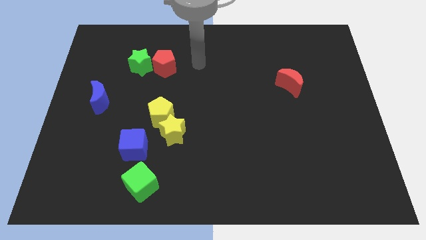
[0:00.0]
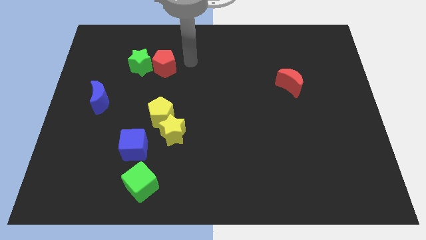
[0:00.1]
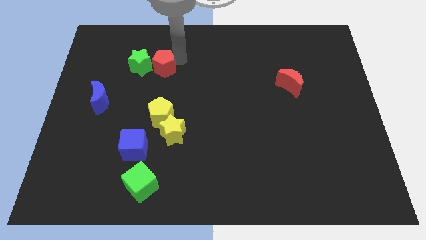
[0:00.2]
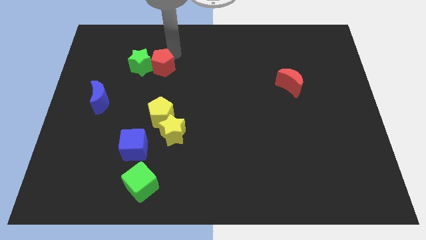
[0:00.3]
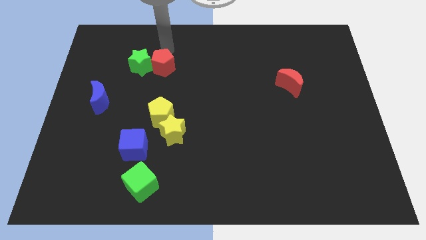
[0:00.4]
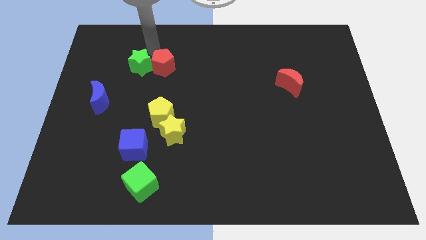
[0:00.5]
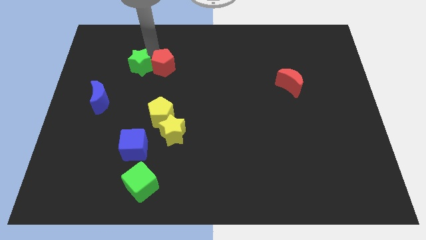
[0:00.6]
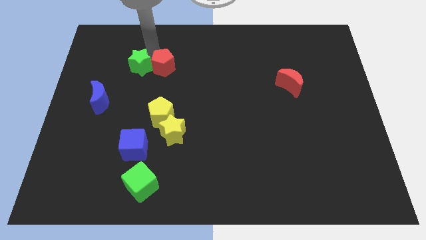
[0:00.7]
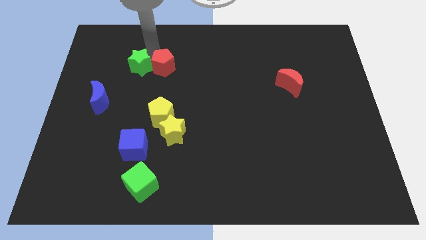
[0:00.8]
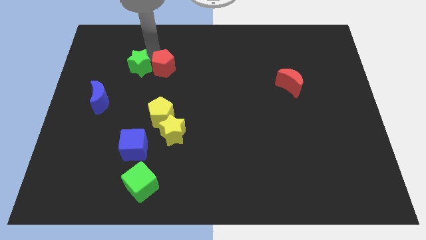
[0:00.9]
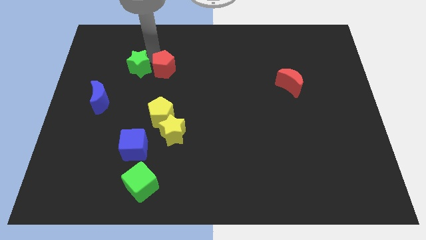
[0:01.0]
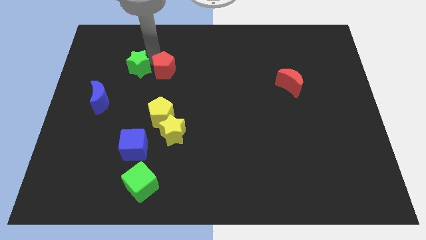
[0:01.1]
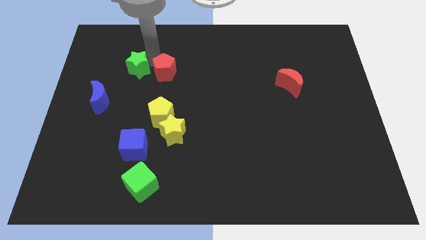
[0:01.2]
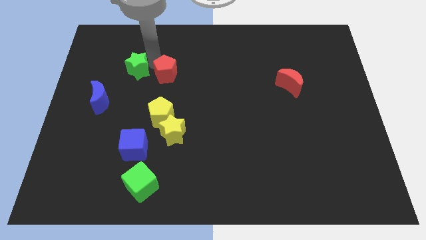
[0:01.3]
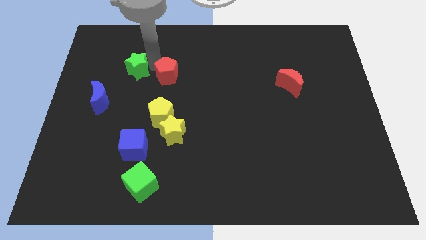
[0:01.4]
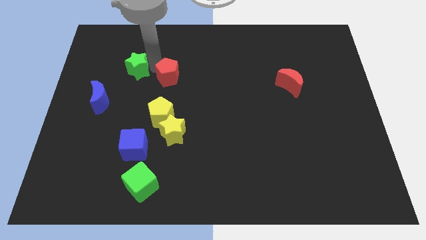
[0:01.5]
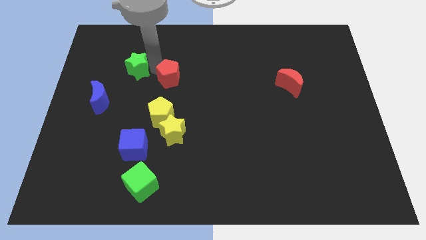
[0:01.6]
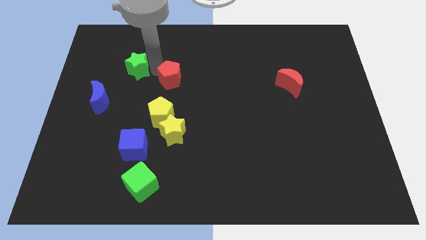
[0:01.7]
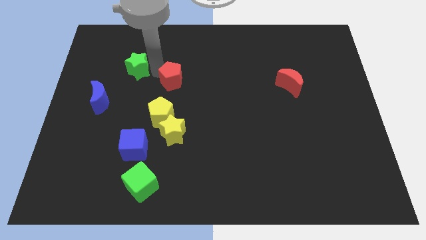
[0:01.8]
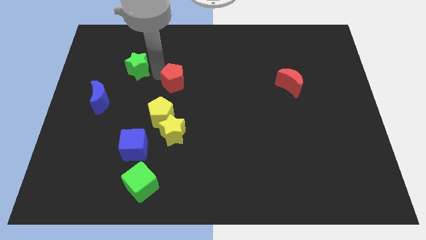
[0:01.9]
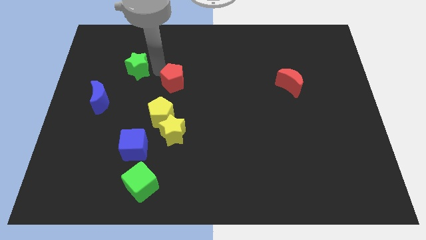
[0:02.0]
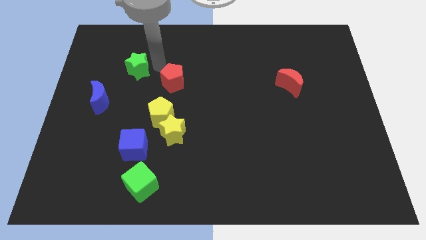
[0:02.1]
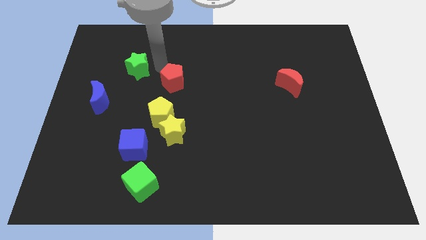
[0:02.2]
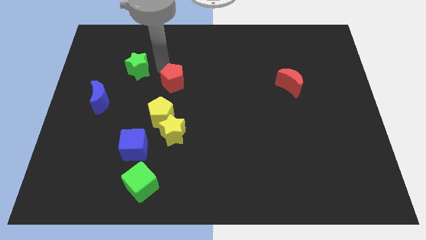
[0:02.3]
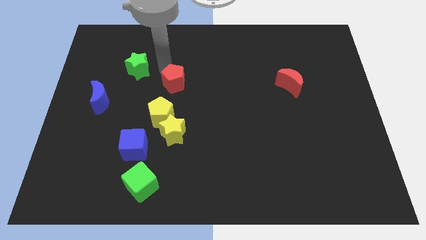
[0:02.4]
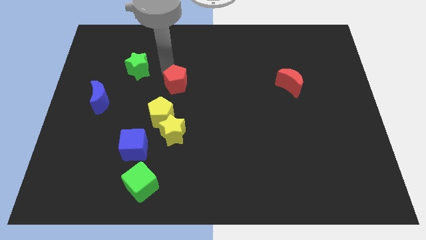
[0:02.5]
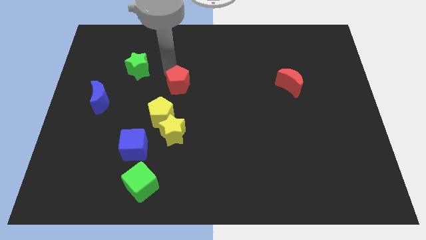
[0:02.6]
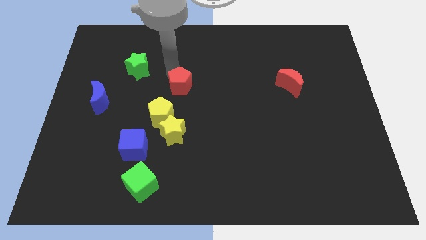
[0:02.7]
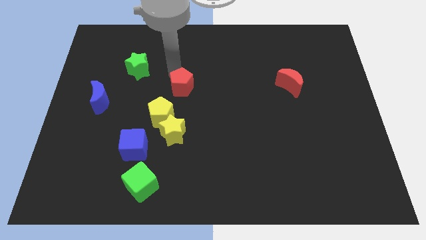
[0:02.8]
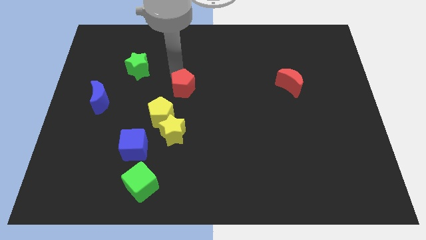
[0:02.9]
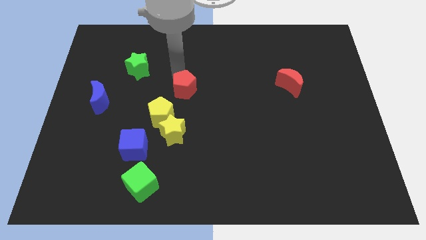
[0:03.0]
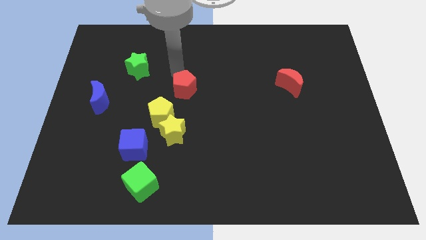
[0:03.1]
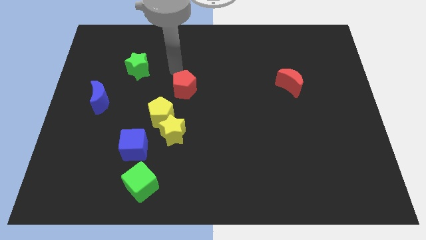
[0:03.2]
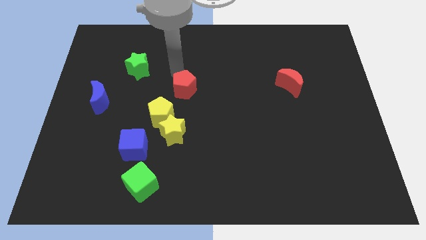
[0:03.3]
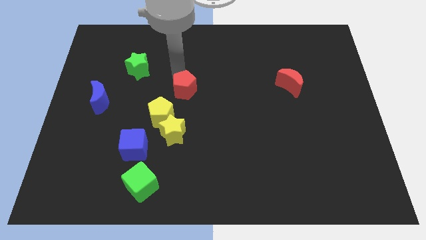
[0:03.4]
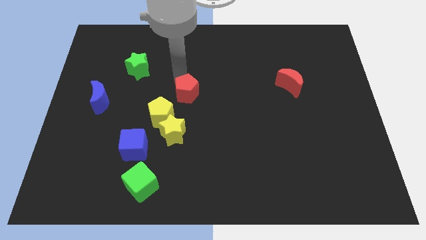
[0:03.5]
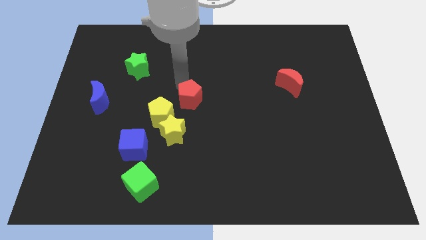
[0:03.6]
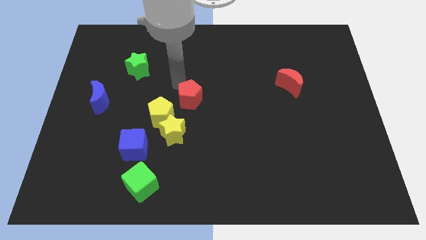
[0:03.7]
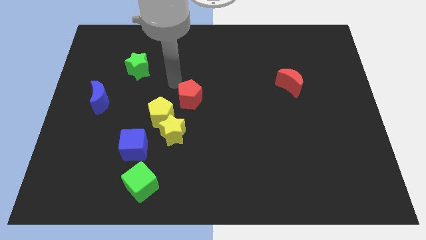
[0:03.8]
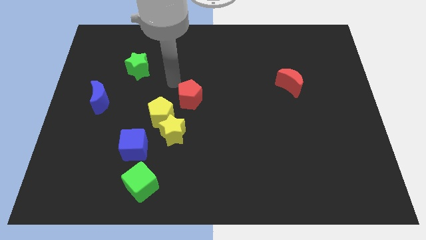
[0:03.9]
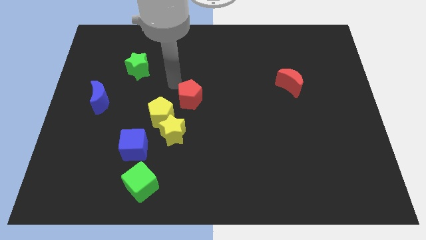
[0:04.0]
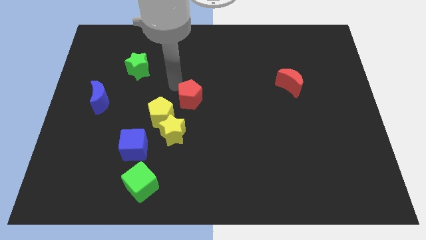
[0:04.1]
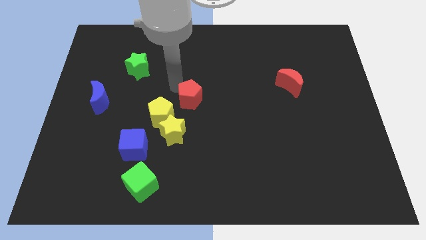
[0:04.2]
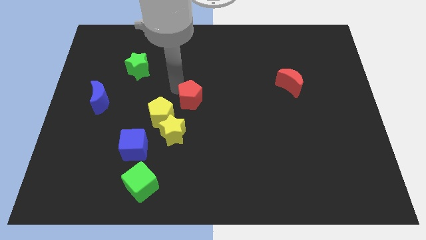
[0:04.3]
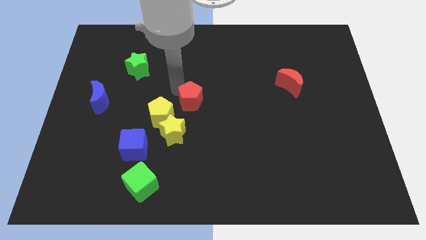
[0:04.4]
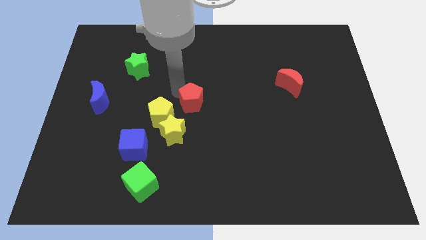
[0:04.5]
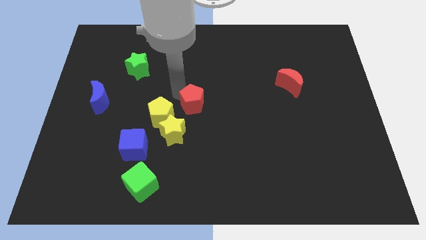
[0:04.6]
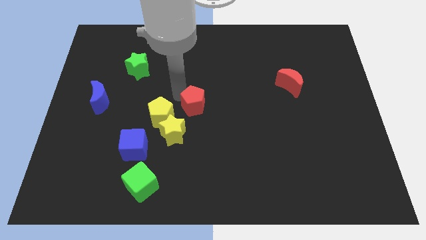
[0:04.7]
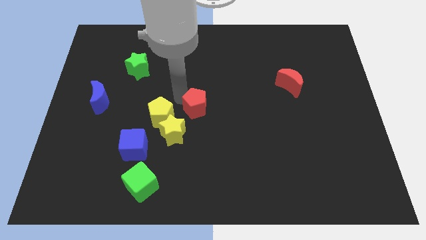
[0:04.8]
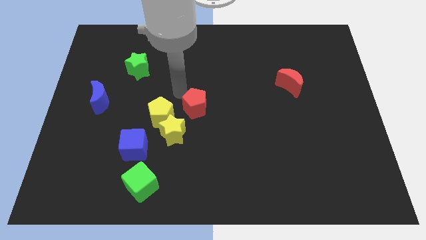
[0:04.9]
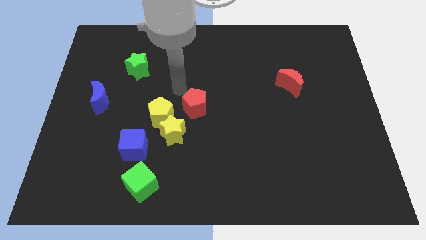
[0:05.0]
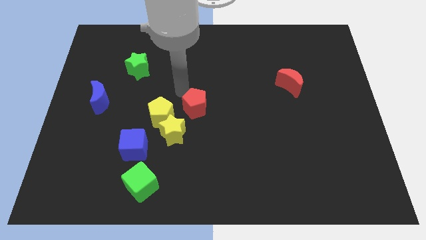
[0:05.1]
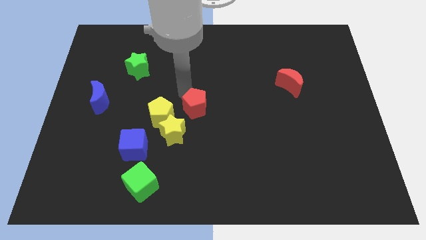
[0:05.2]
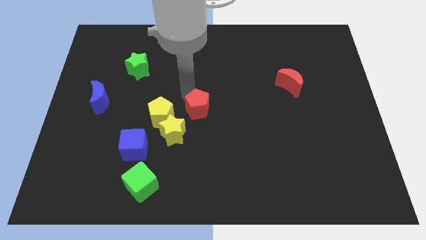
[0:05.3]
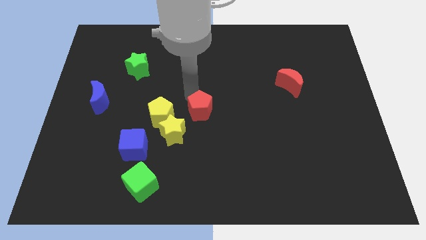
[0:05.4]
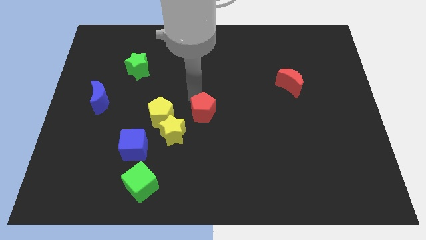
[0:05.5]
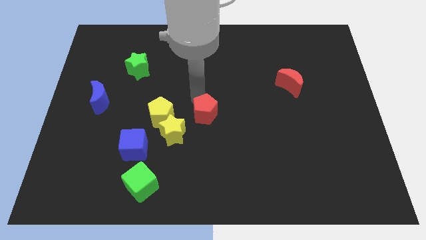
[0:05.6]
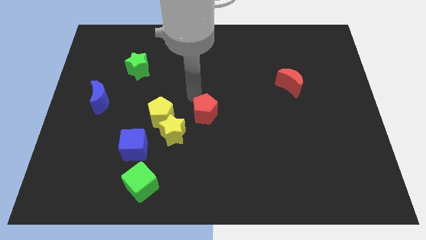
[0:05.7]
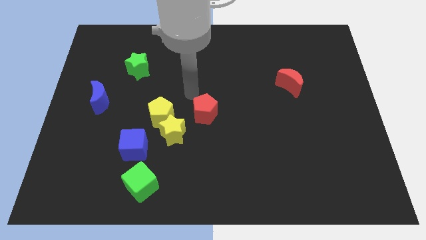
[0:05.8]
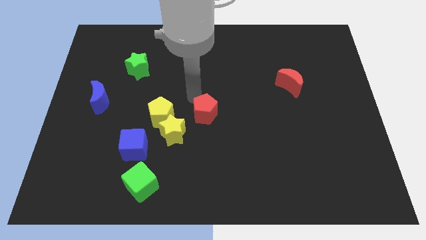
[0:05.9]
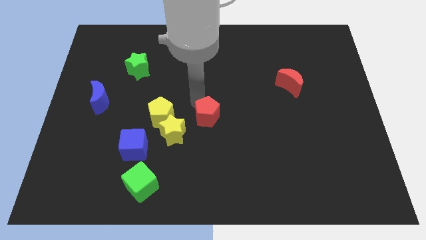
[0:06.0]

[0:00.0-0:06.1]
put the red pentagon just right of the yellow star

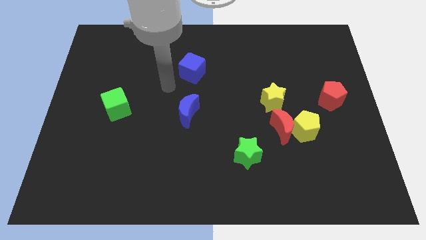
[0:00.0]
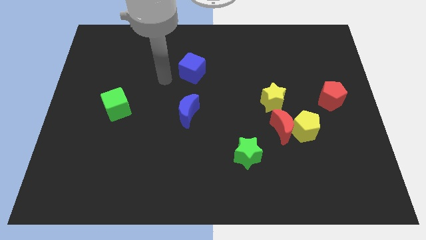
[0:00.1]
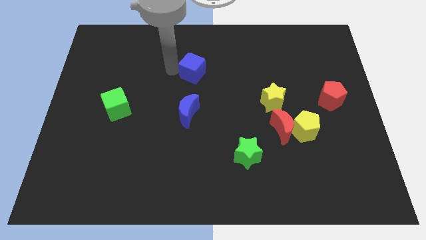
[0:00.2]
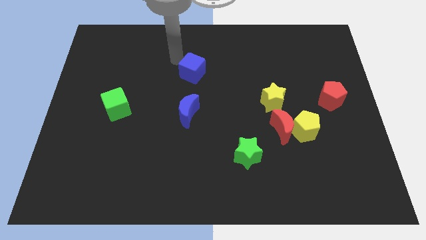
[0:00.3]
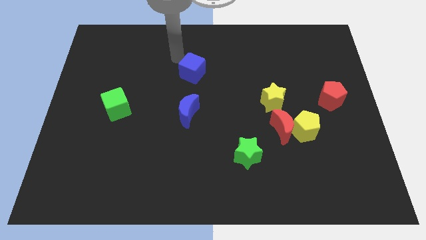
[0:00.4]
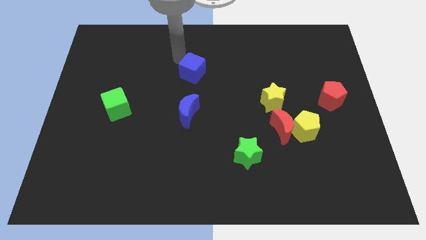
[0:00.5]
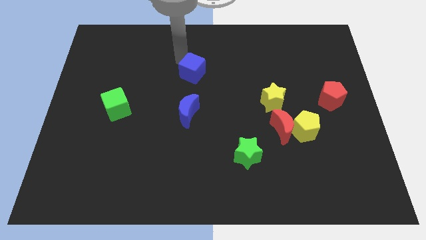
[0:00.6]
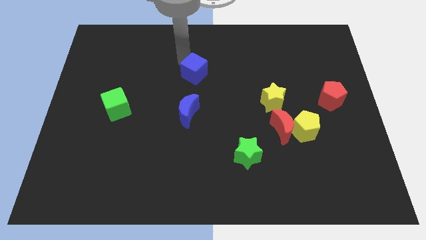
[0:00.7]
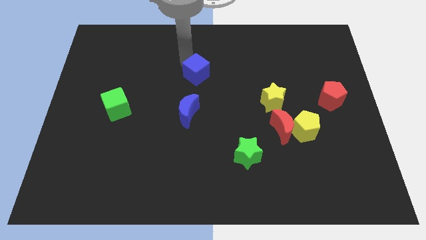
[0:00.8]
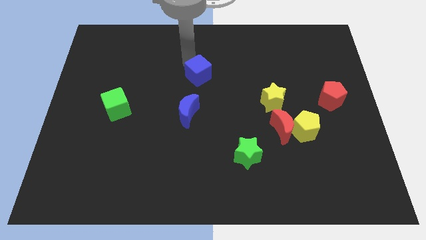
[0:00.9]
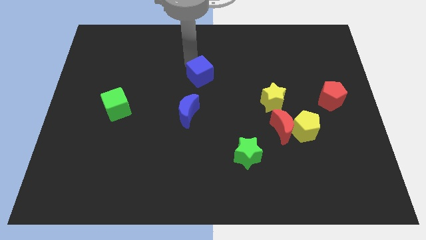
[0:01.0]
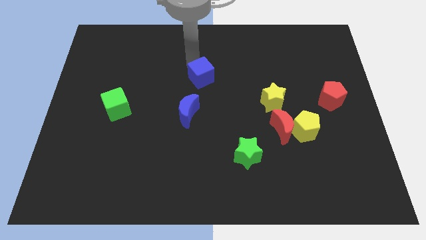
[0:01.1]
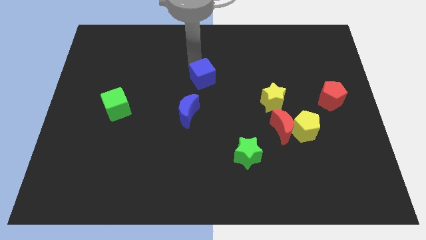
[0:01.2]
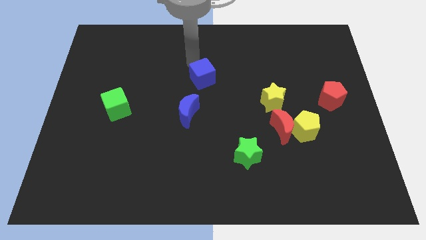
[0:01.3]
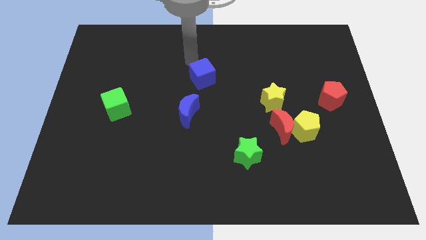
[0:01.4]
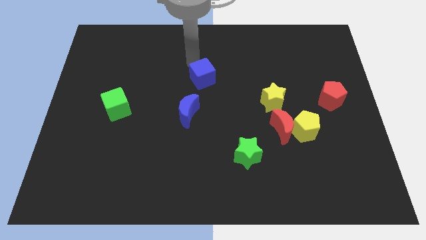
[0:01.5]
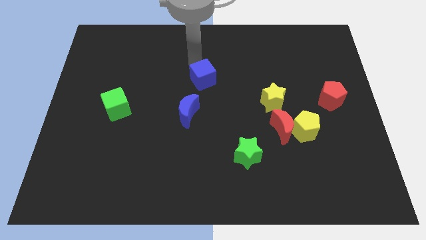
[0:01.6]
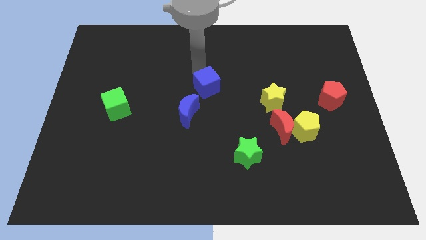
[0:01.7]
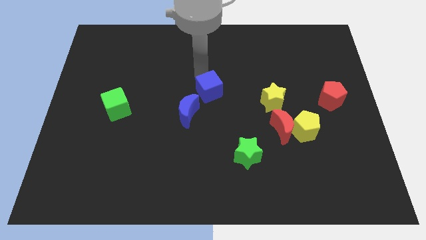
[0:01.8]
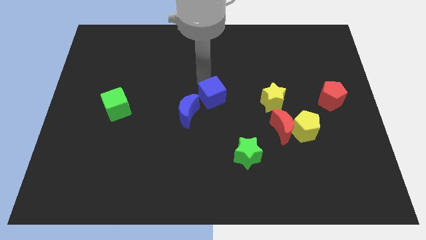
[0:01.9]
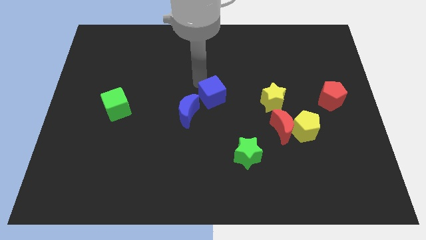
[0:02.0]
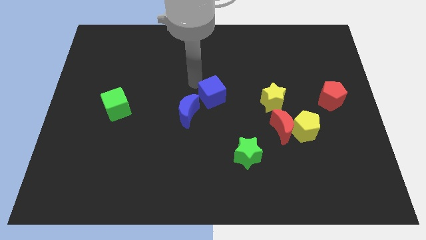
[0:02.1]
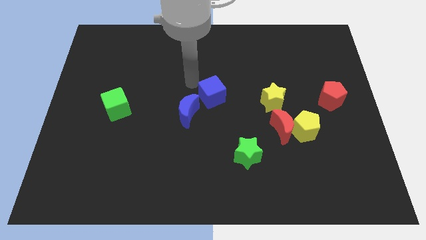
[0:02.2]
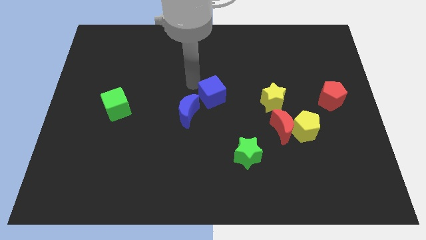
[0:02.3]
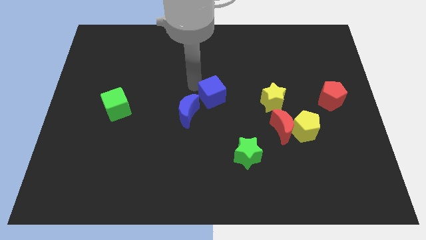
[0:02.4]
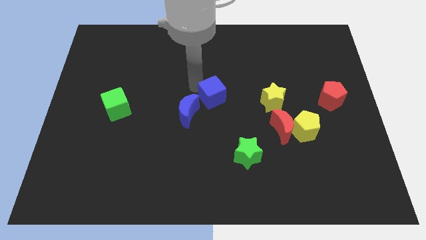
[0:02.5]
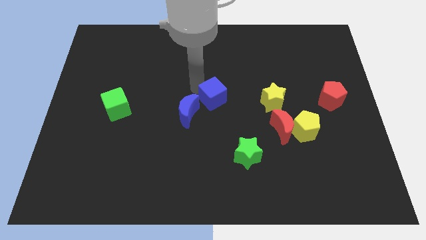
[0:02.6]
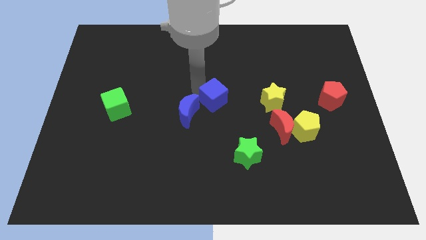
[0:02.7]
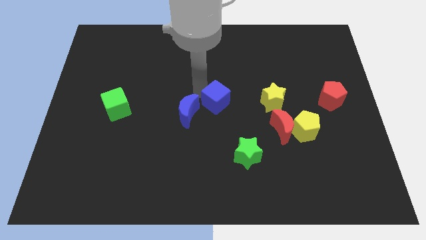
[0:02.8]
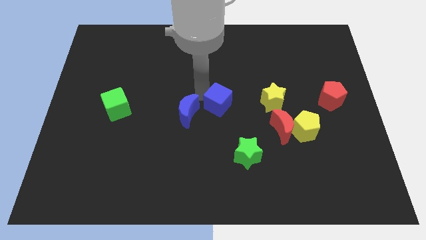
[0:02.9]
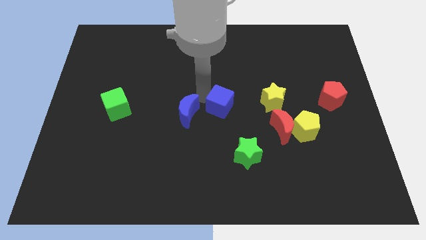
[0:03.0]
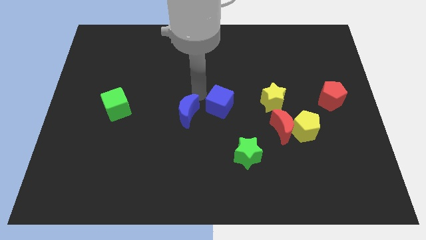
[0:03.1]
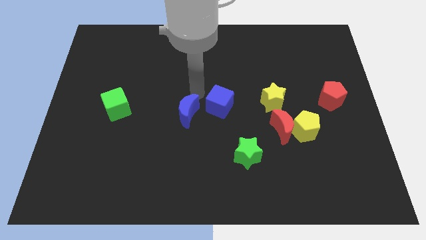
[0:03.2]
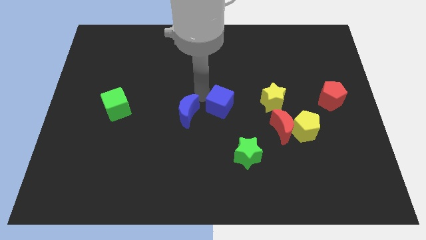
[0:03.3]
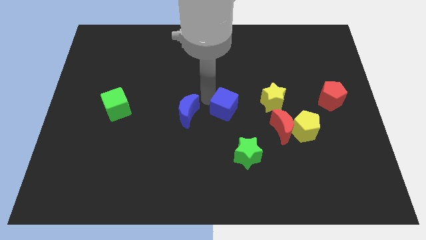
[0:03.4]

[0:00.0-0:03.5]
put the blue cube to the top side of the green star
